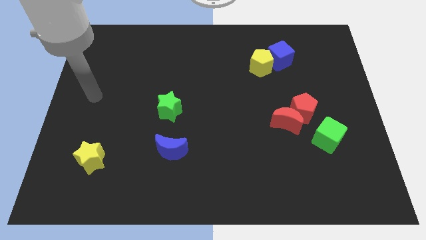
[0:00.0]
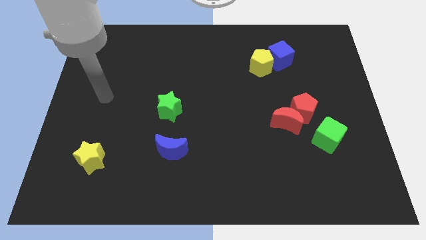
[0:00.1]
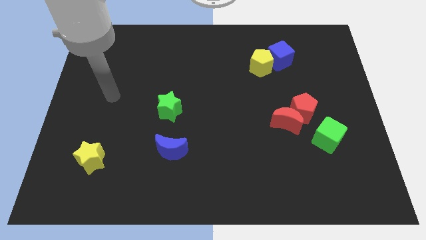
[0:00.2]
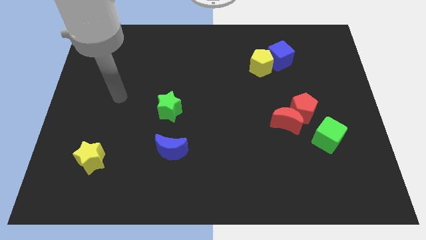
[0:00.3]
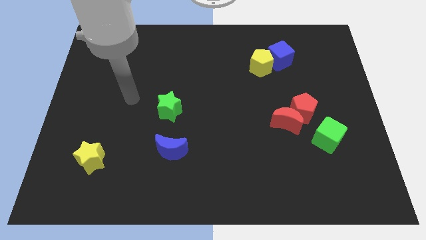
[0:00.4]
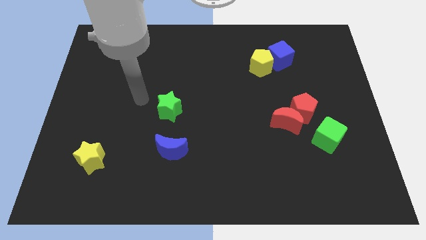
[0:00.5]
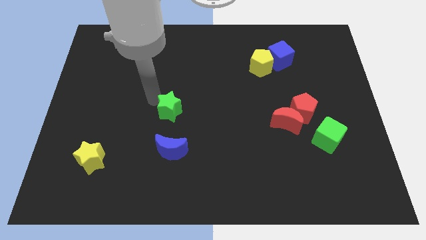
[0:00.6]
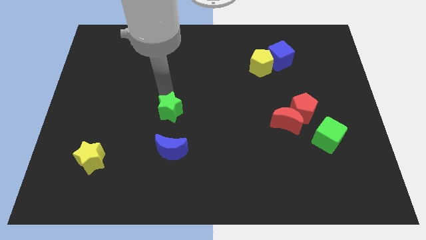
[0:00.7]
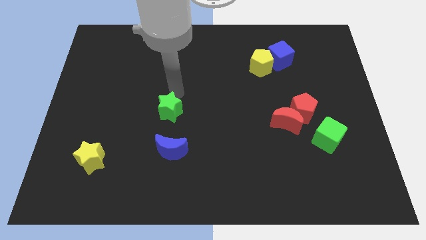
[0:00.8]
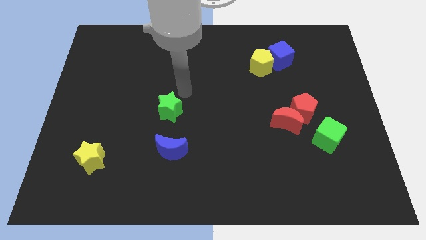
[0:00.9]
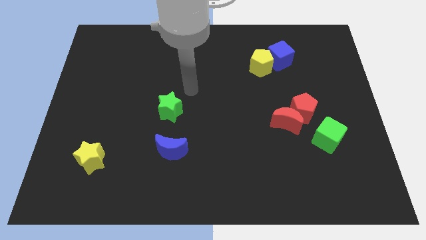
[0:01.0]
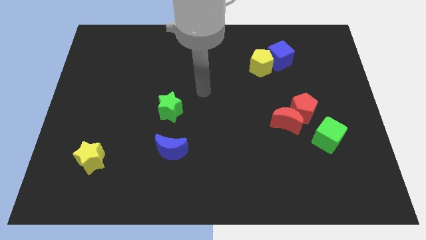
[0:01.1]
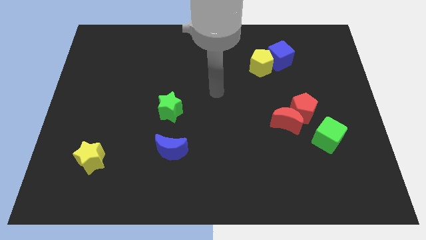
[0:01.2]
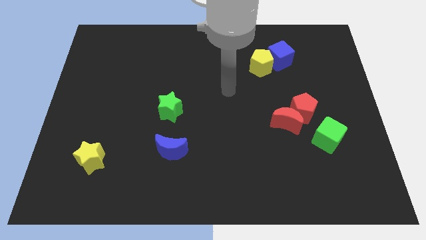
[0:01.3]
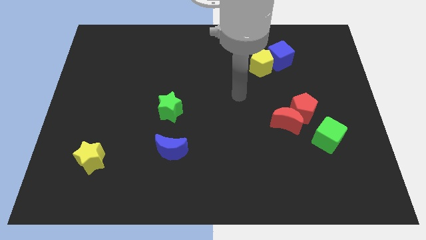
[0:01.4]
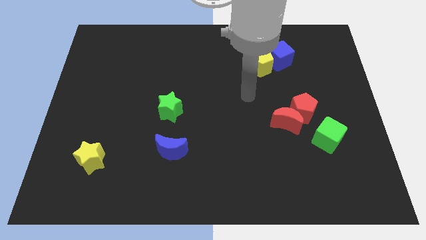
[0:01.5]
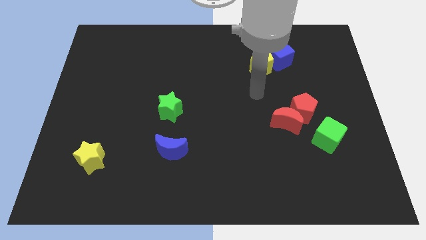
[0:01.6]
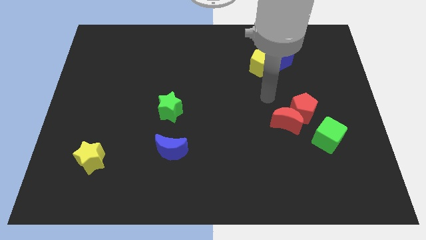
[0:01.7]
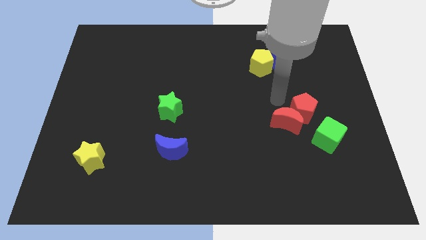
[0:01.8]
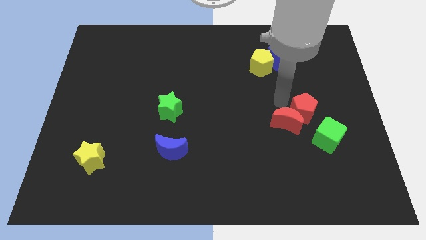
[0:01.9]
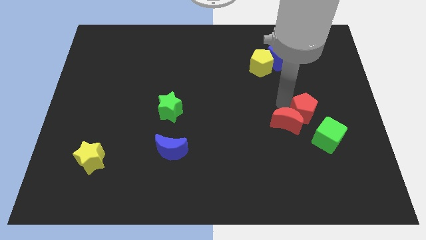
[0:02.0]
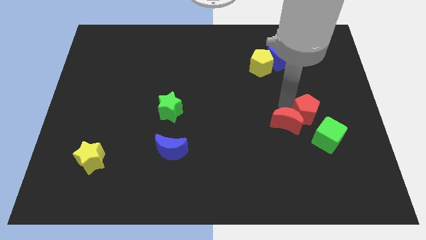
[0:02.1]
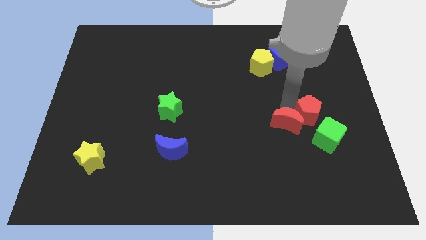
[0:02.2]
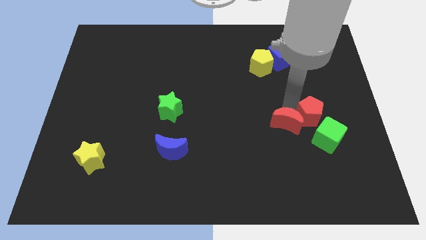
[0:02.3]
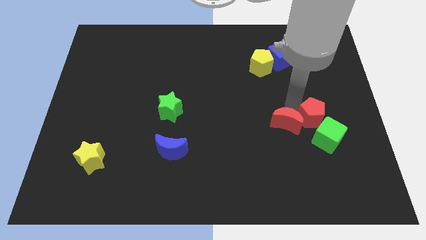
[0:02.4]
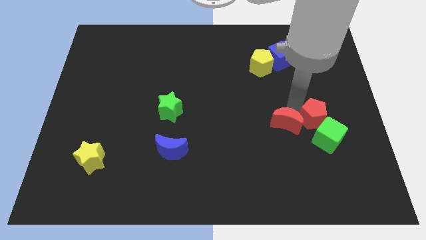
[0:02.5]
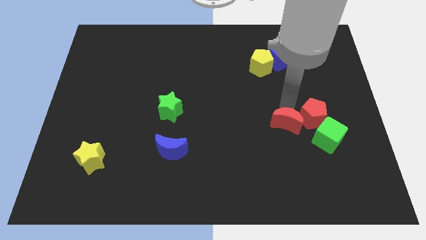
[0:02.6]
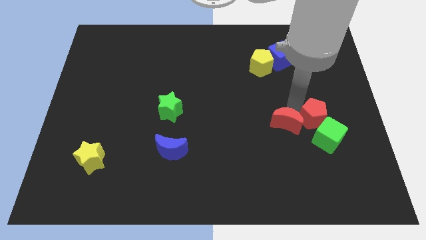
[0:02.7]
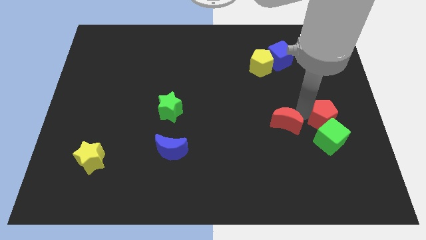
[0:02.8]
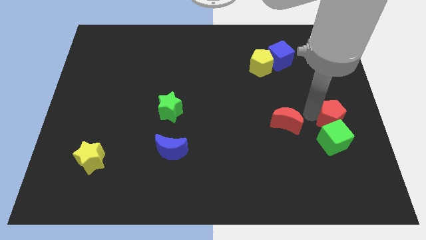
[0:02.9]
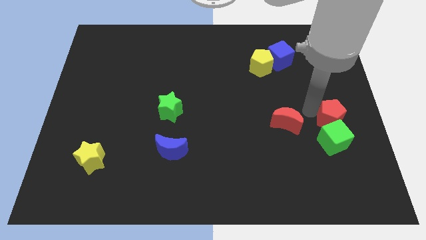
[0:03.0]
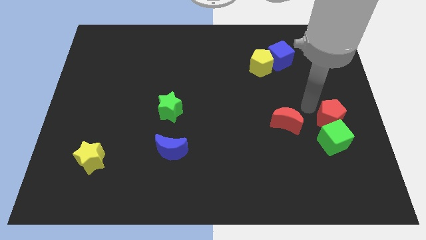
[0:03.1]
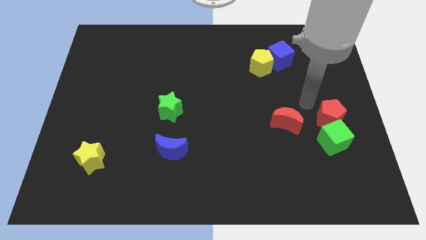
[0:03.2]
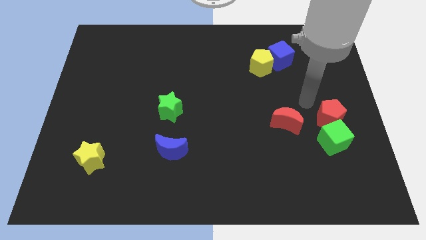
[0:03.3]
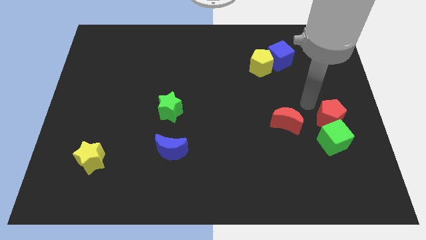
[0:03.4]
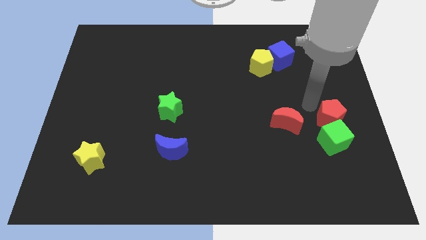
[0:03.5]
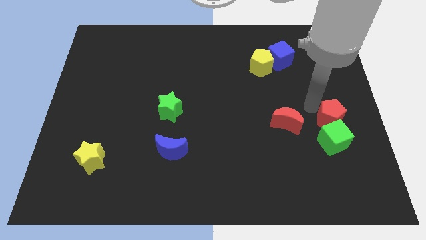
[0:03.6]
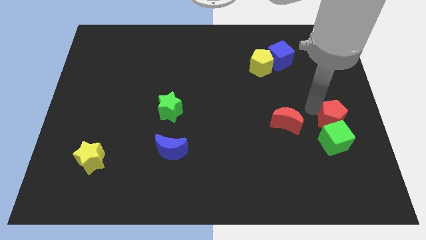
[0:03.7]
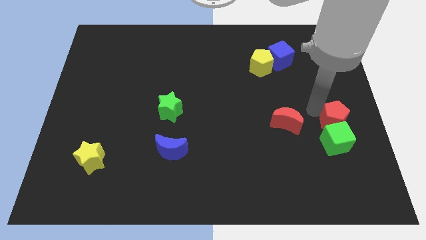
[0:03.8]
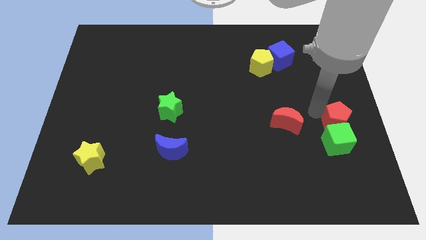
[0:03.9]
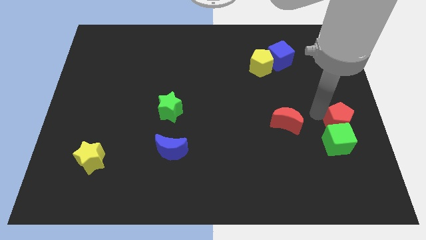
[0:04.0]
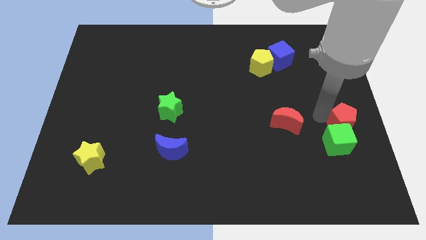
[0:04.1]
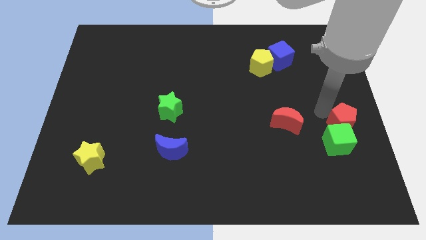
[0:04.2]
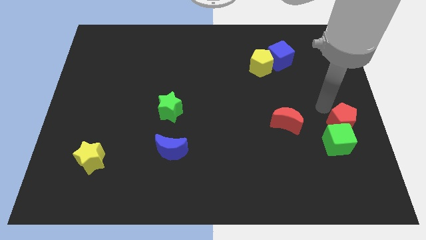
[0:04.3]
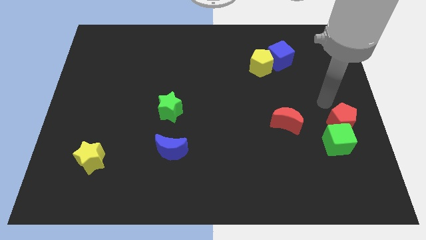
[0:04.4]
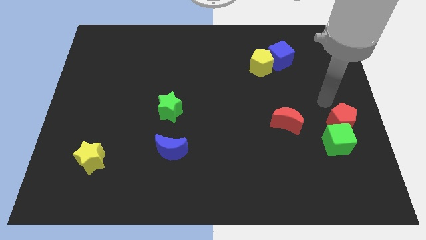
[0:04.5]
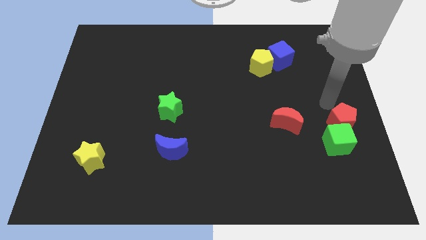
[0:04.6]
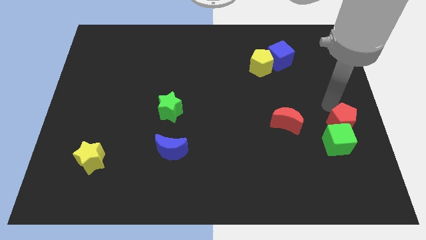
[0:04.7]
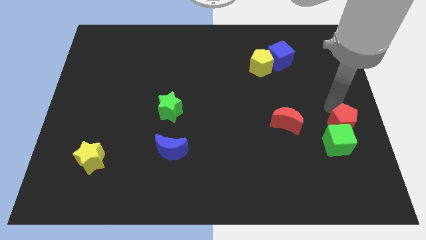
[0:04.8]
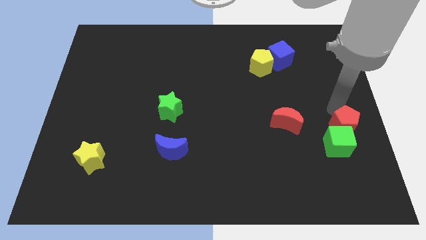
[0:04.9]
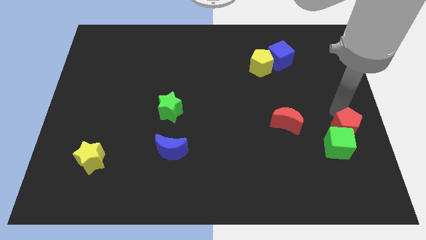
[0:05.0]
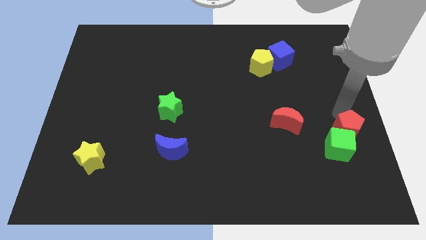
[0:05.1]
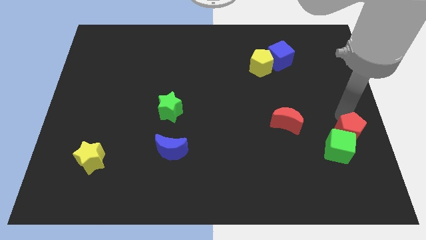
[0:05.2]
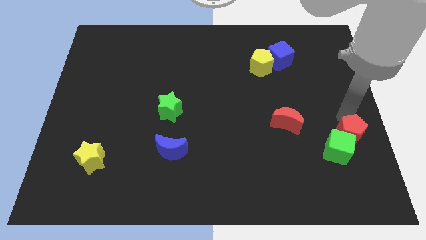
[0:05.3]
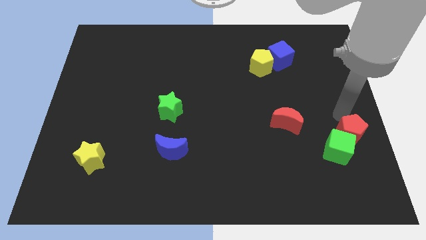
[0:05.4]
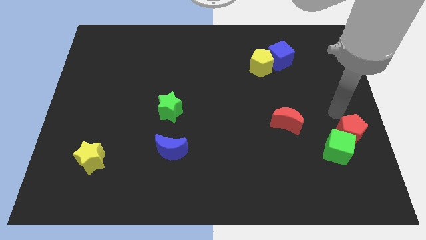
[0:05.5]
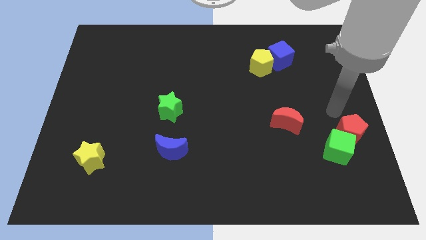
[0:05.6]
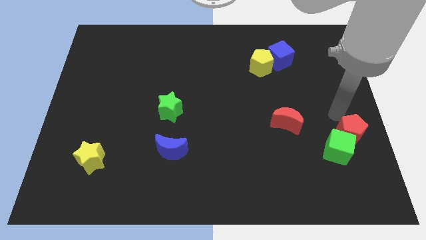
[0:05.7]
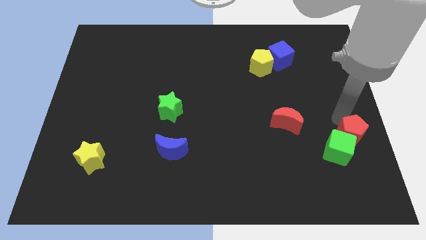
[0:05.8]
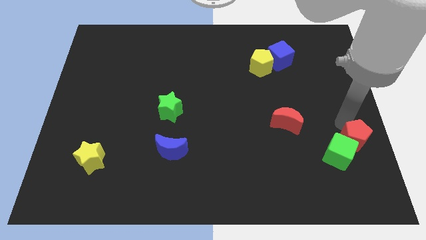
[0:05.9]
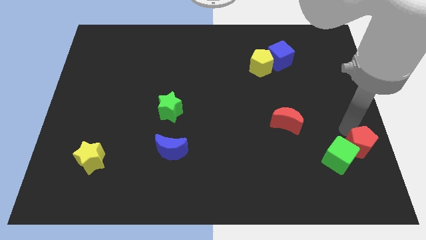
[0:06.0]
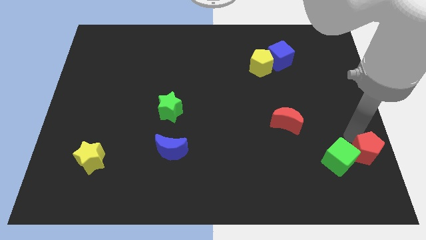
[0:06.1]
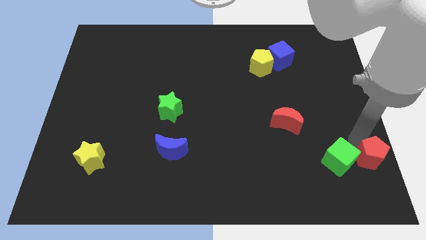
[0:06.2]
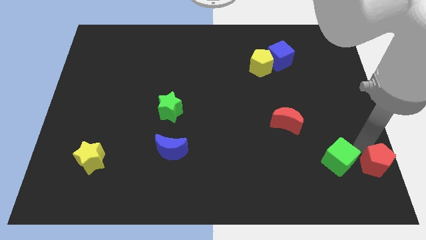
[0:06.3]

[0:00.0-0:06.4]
slide the red pentagon to the bottom right corner

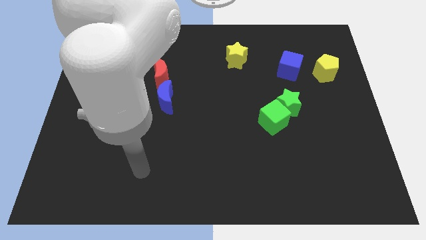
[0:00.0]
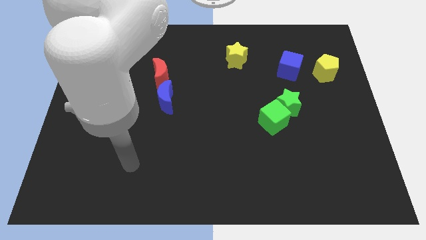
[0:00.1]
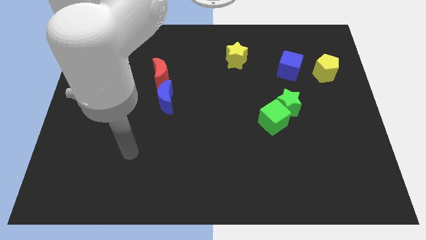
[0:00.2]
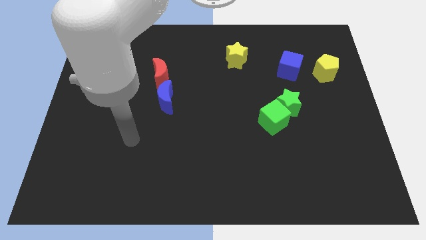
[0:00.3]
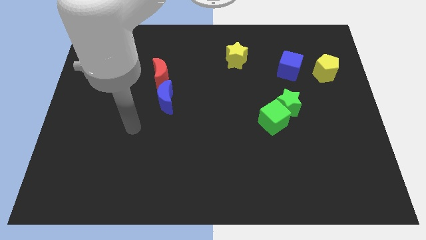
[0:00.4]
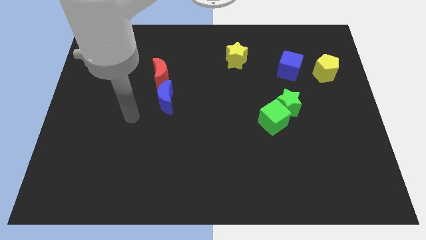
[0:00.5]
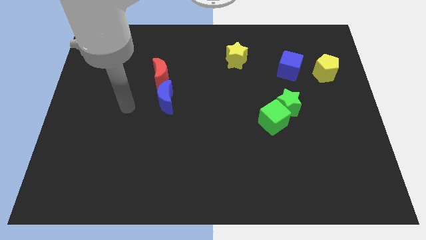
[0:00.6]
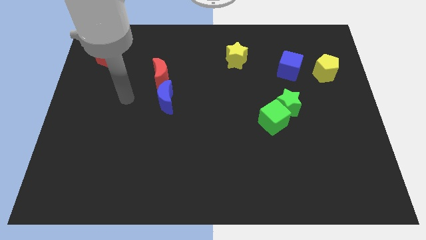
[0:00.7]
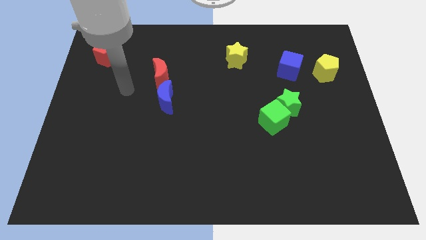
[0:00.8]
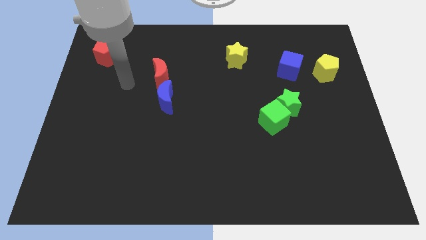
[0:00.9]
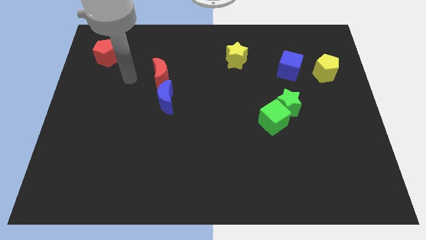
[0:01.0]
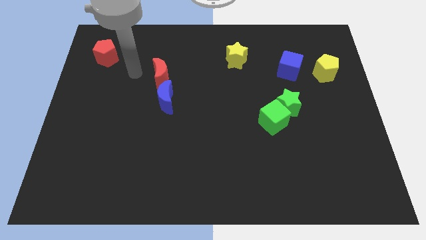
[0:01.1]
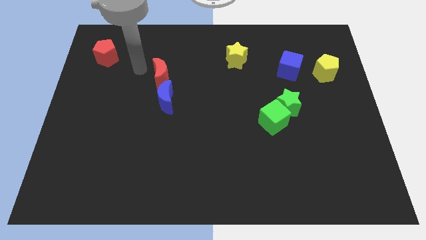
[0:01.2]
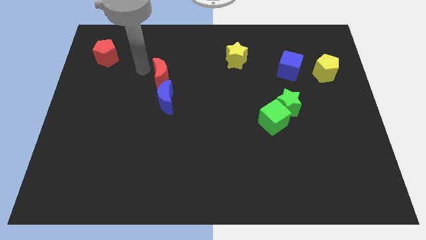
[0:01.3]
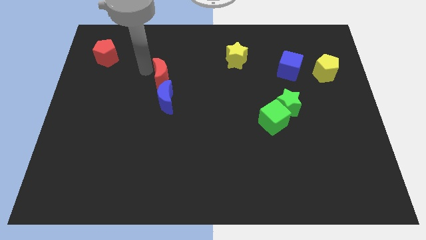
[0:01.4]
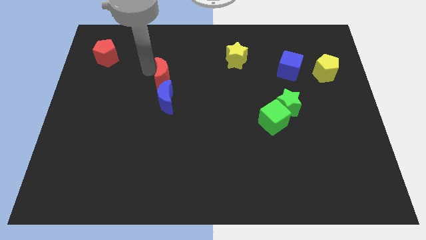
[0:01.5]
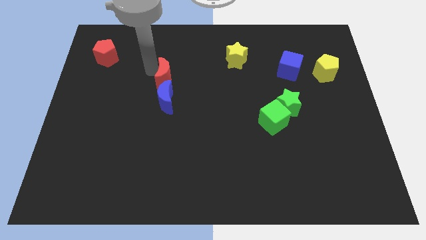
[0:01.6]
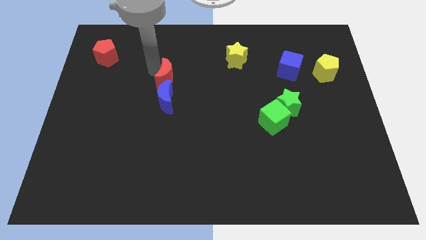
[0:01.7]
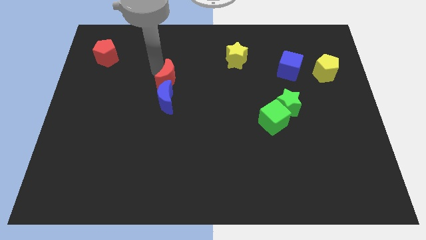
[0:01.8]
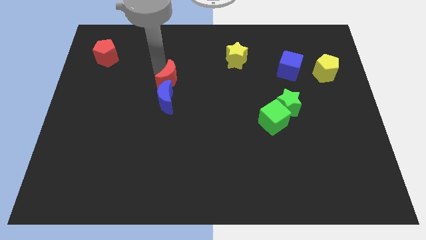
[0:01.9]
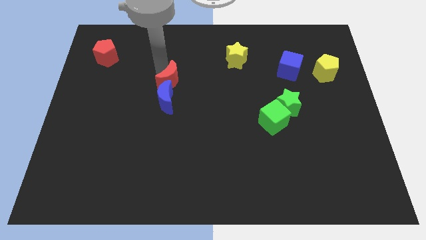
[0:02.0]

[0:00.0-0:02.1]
move the red moon to the center
